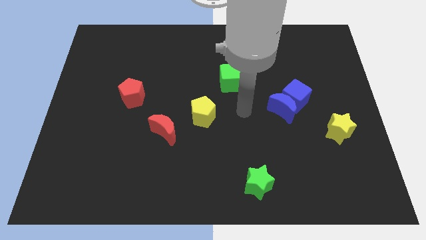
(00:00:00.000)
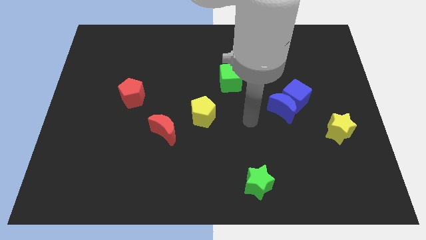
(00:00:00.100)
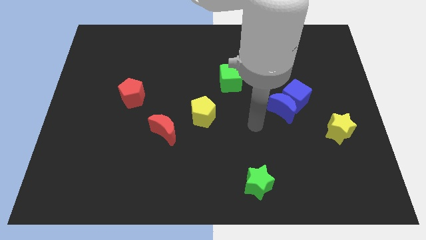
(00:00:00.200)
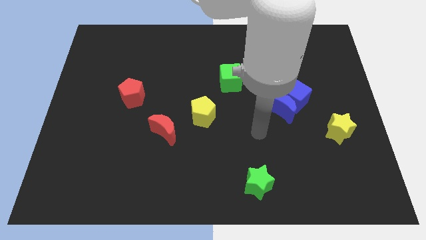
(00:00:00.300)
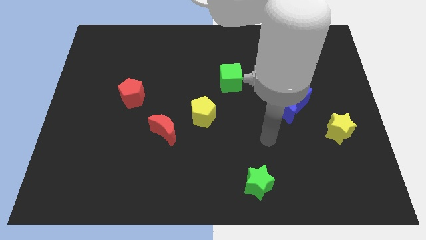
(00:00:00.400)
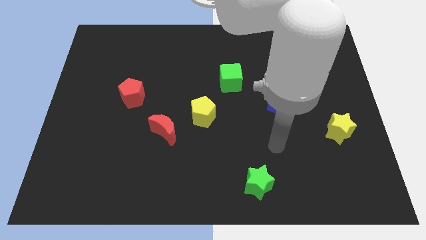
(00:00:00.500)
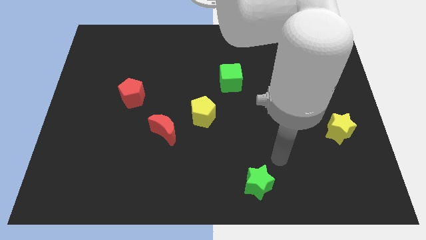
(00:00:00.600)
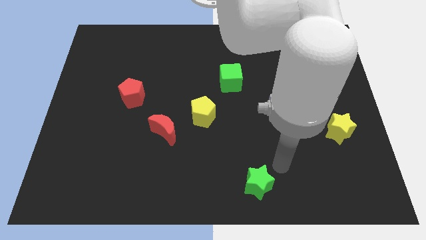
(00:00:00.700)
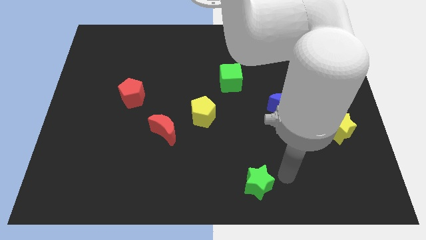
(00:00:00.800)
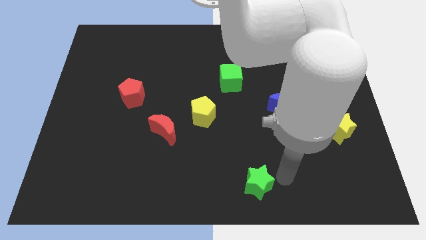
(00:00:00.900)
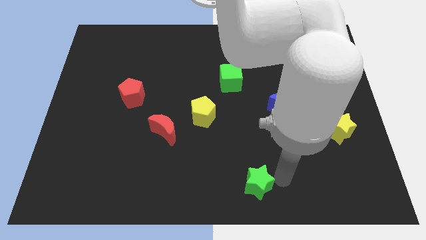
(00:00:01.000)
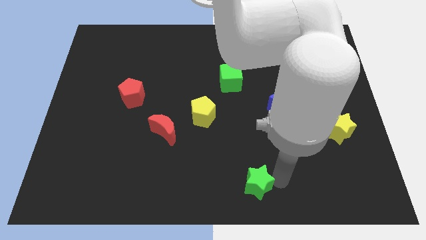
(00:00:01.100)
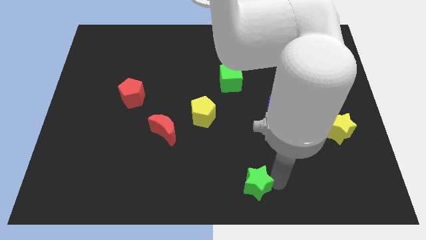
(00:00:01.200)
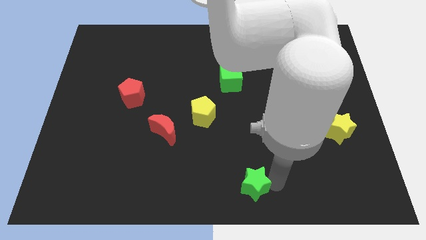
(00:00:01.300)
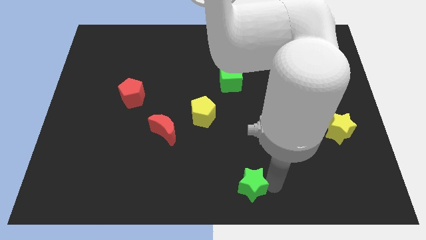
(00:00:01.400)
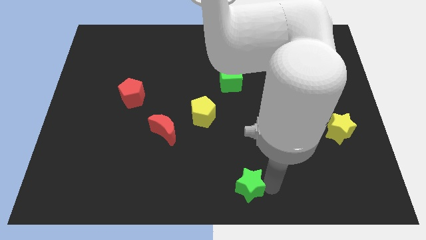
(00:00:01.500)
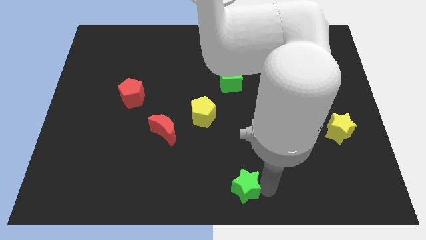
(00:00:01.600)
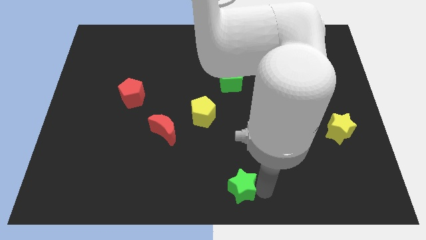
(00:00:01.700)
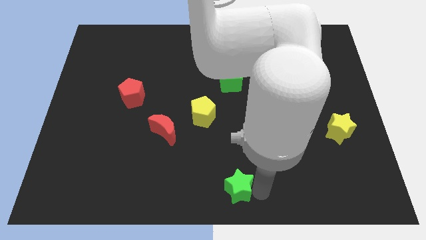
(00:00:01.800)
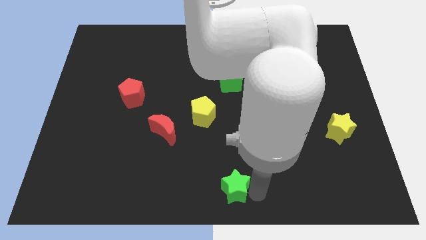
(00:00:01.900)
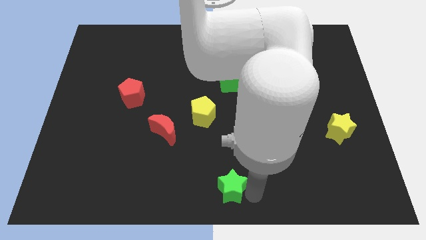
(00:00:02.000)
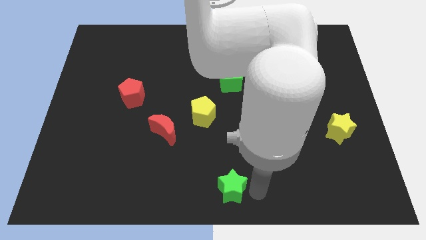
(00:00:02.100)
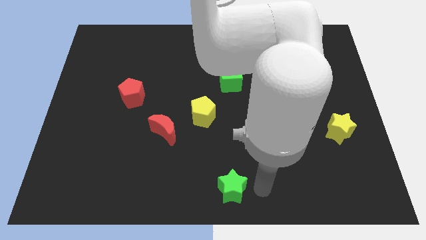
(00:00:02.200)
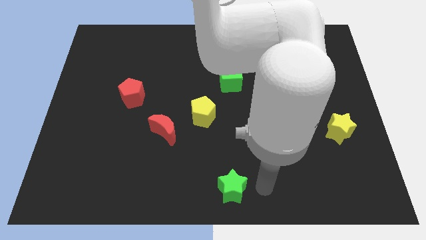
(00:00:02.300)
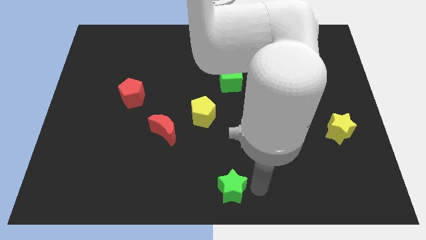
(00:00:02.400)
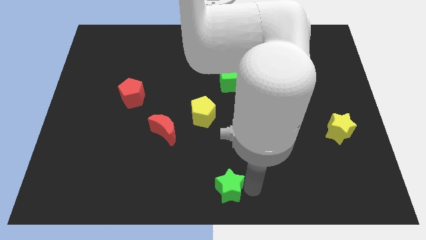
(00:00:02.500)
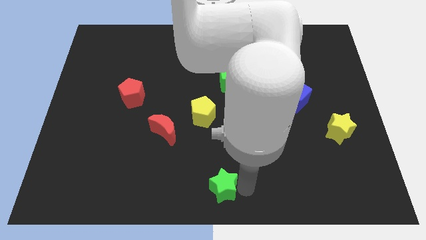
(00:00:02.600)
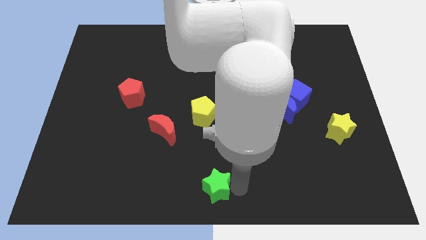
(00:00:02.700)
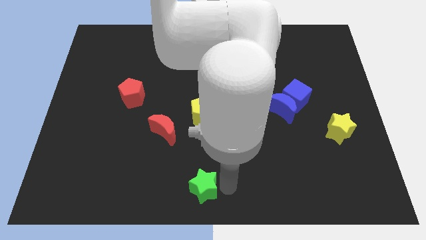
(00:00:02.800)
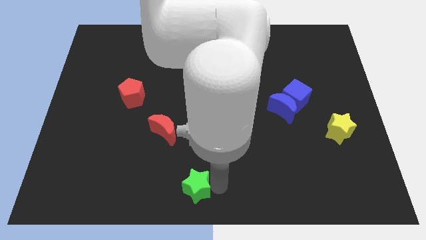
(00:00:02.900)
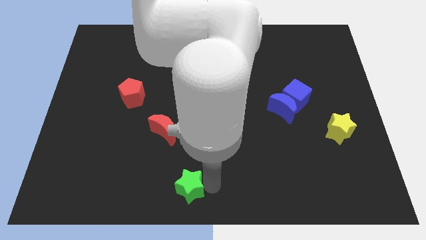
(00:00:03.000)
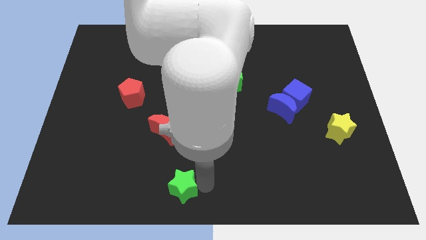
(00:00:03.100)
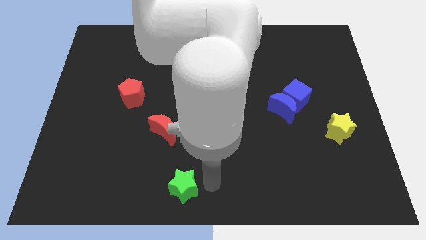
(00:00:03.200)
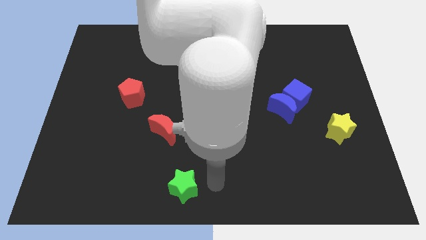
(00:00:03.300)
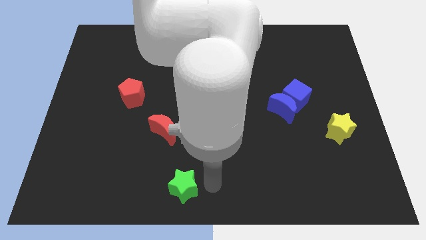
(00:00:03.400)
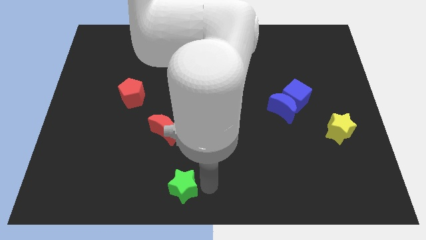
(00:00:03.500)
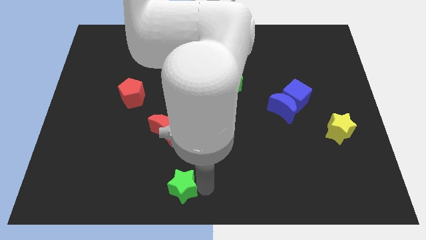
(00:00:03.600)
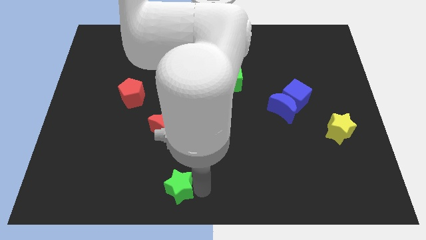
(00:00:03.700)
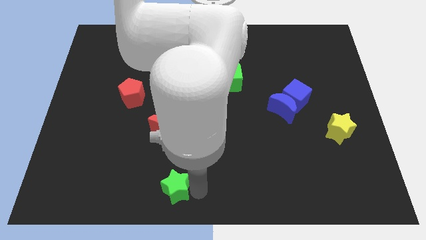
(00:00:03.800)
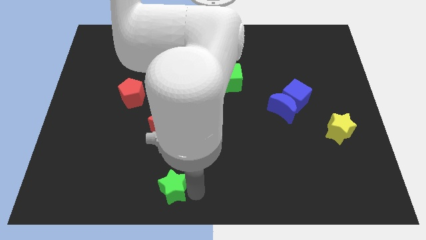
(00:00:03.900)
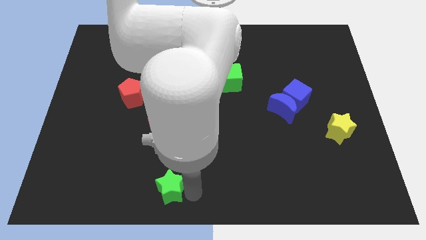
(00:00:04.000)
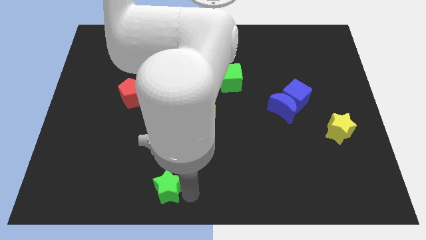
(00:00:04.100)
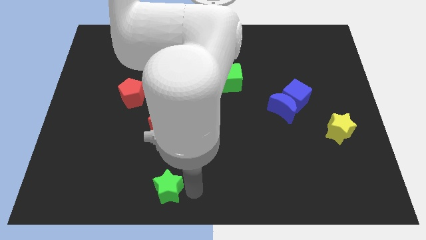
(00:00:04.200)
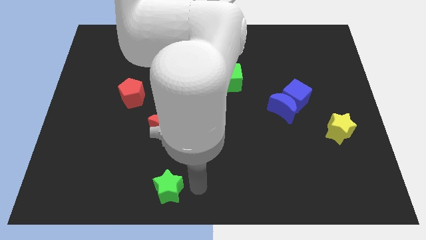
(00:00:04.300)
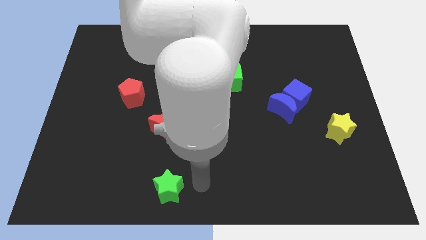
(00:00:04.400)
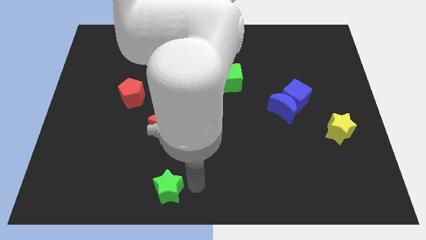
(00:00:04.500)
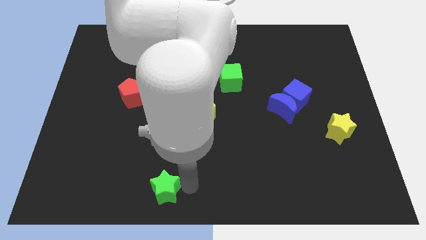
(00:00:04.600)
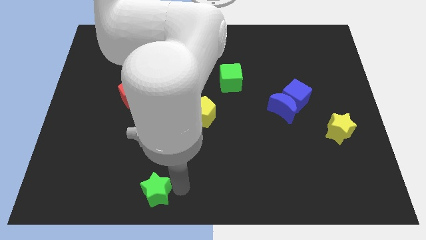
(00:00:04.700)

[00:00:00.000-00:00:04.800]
move the green star left

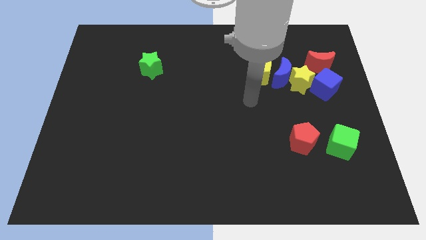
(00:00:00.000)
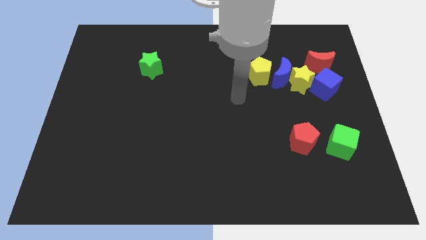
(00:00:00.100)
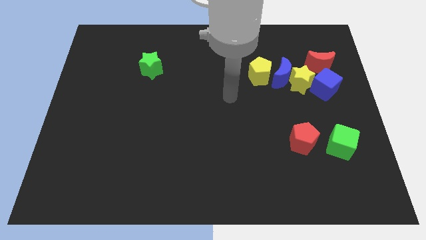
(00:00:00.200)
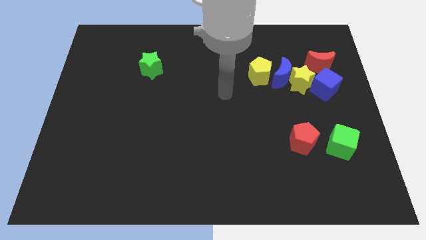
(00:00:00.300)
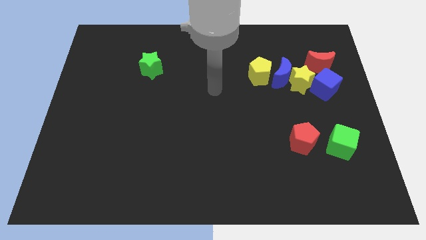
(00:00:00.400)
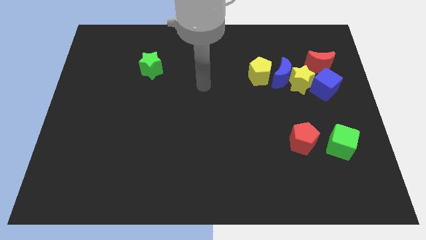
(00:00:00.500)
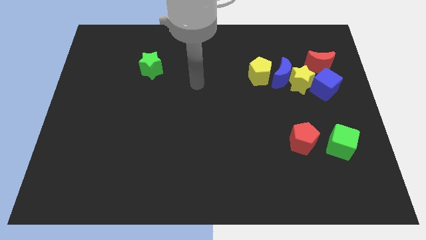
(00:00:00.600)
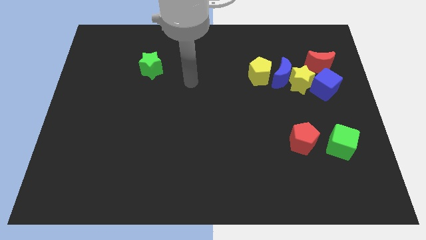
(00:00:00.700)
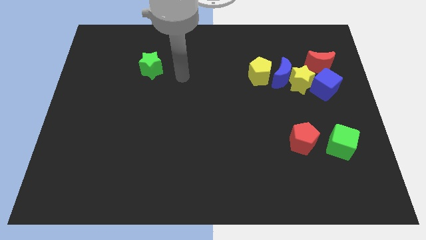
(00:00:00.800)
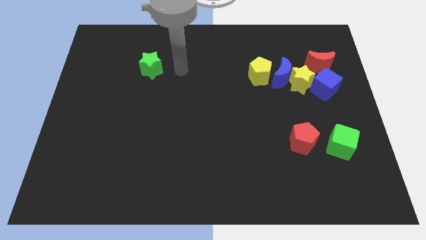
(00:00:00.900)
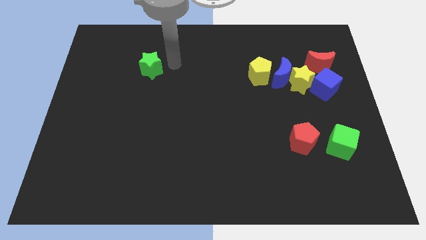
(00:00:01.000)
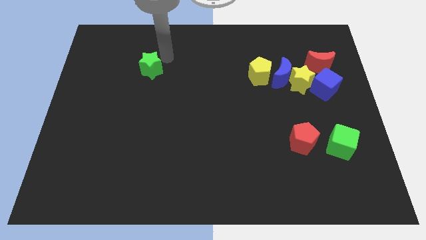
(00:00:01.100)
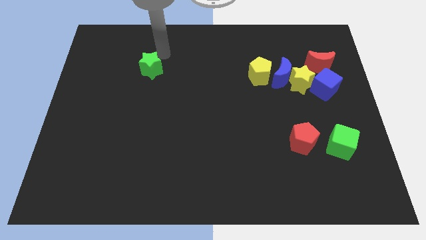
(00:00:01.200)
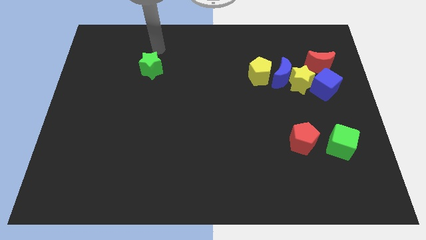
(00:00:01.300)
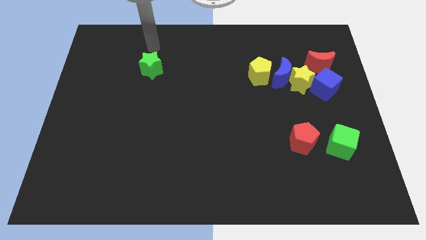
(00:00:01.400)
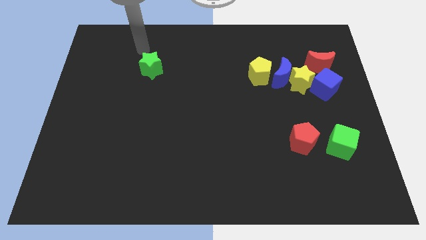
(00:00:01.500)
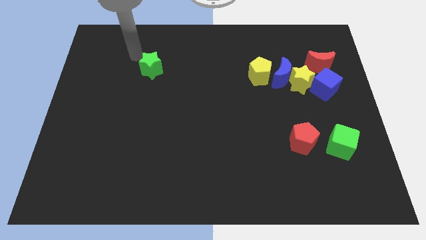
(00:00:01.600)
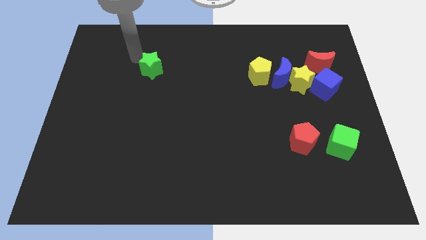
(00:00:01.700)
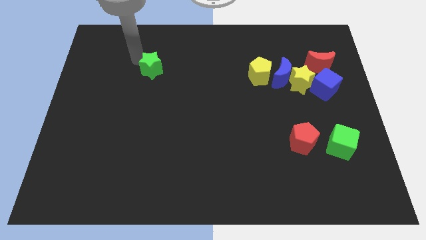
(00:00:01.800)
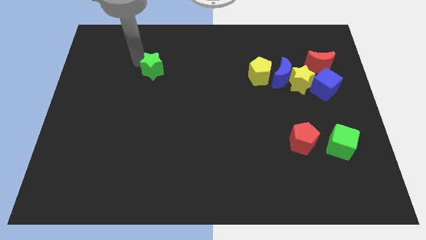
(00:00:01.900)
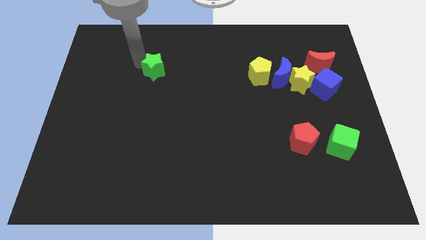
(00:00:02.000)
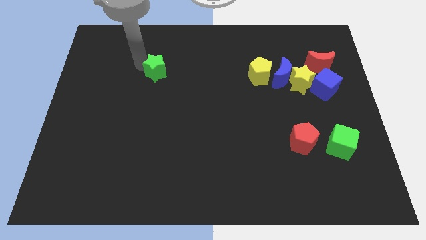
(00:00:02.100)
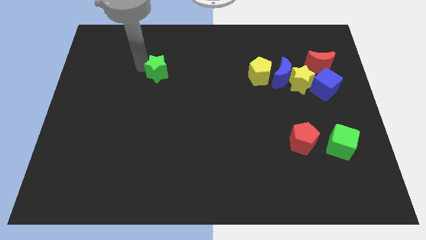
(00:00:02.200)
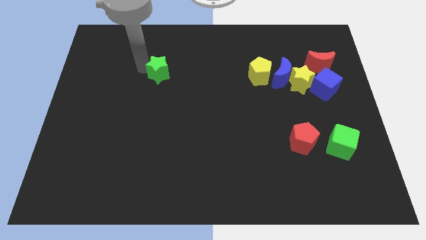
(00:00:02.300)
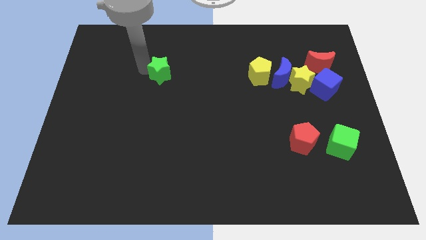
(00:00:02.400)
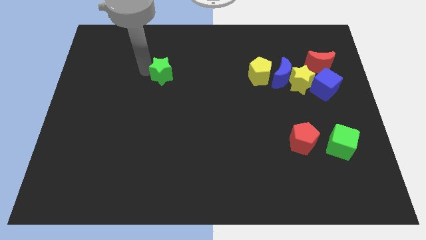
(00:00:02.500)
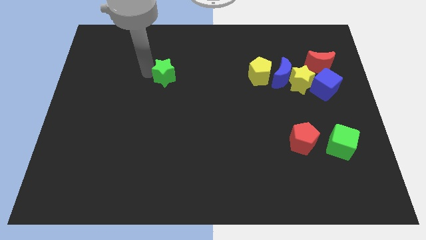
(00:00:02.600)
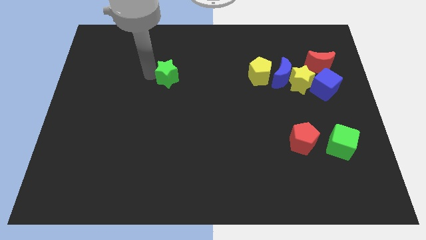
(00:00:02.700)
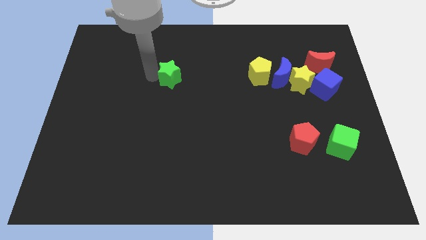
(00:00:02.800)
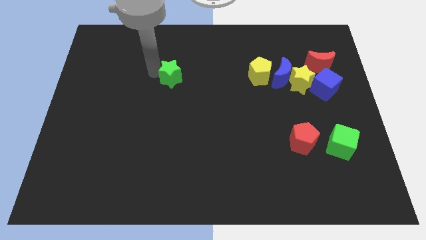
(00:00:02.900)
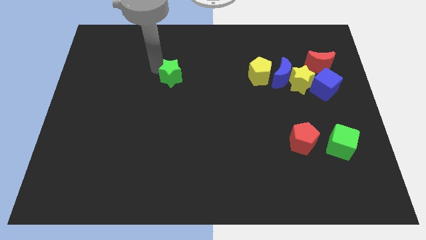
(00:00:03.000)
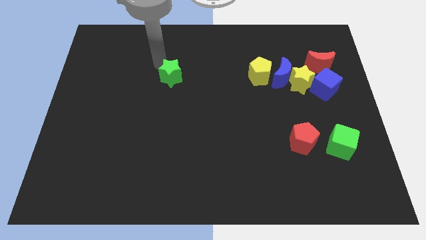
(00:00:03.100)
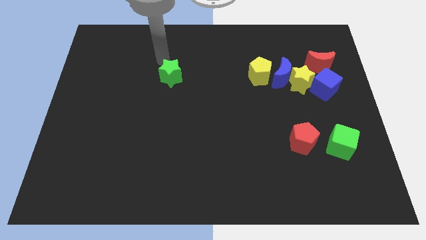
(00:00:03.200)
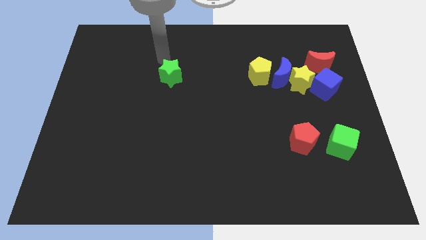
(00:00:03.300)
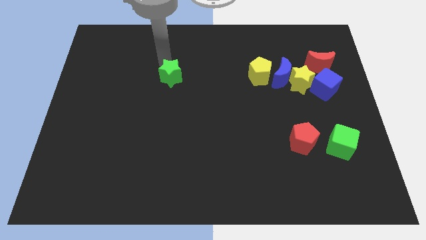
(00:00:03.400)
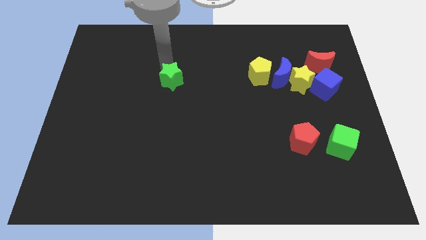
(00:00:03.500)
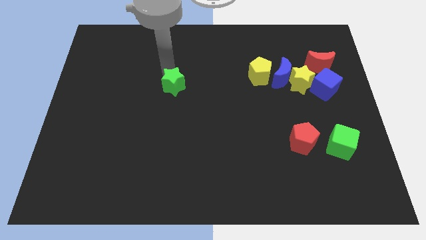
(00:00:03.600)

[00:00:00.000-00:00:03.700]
slightly slide the green star down and then right
